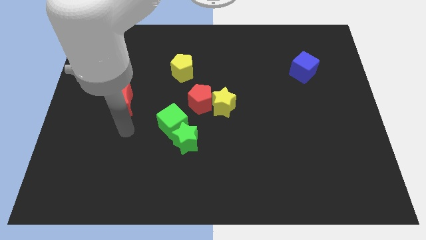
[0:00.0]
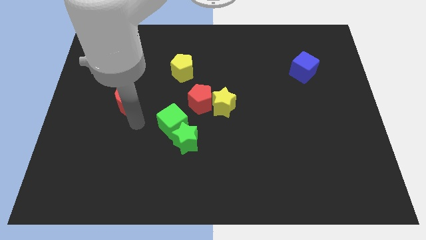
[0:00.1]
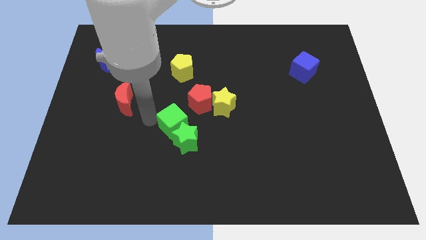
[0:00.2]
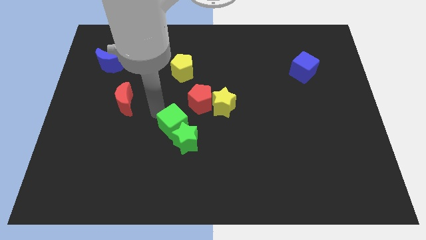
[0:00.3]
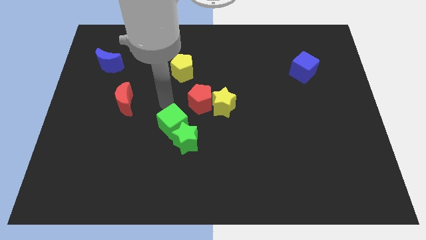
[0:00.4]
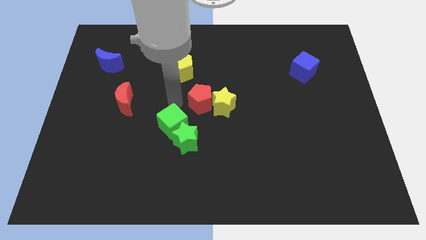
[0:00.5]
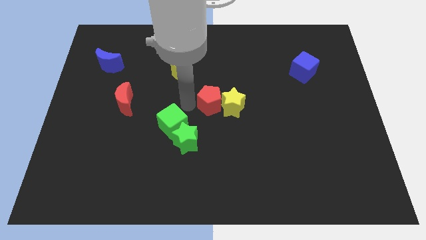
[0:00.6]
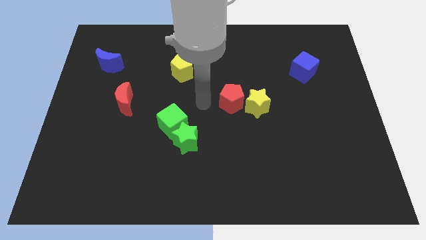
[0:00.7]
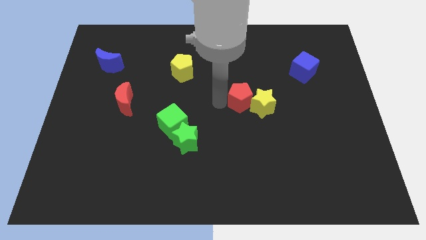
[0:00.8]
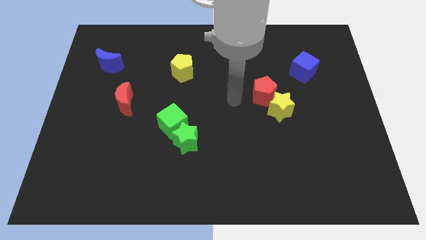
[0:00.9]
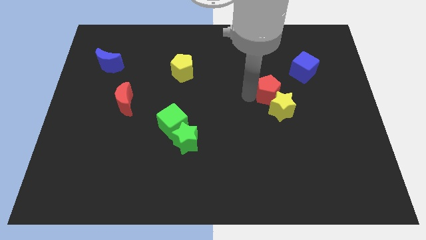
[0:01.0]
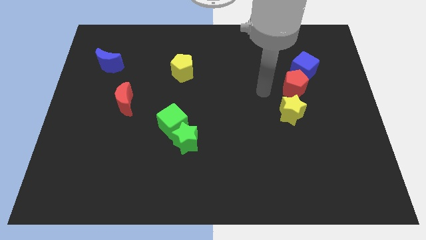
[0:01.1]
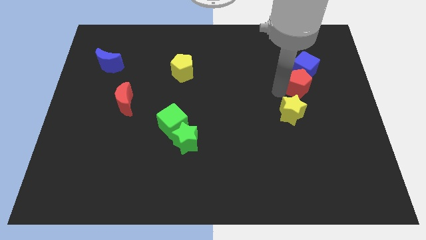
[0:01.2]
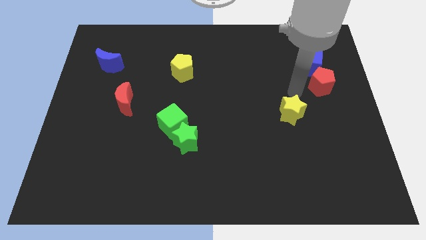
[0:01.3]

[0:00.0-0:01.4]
separate the yellow star from the red pentagon

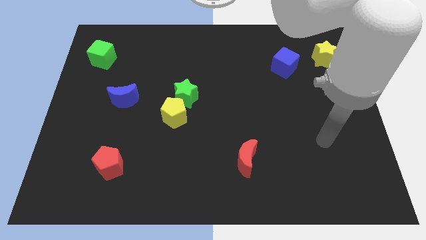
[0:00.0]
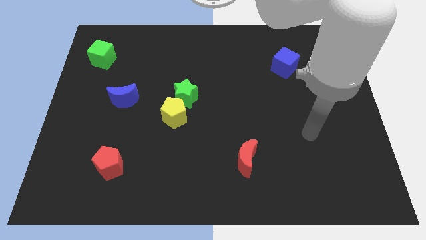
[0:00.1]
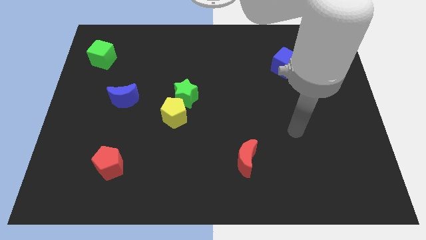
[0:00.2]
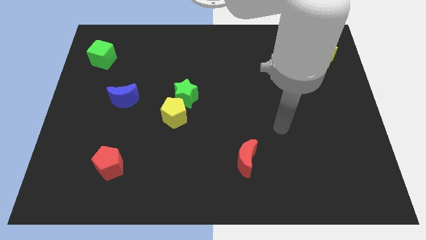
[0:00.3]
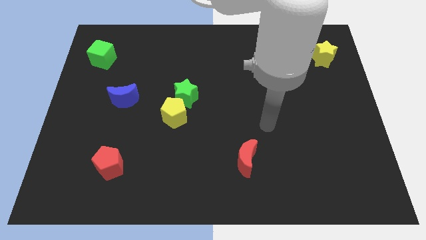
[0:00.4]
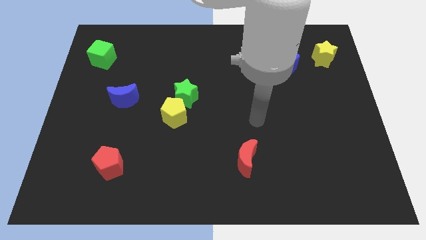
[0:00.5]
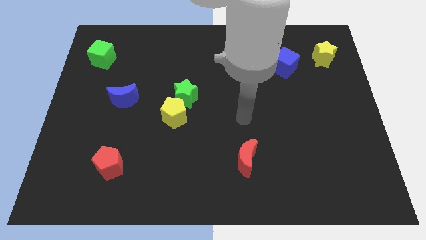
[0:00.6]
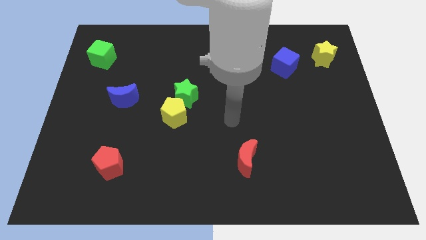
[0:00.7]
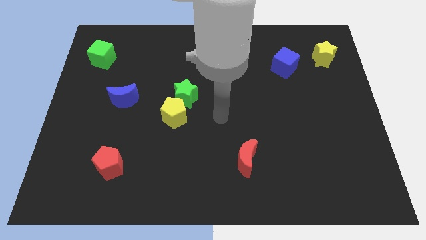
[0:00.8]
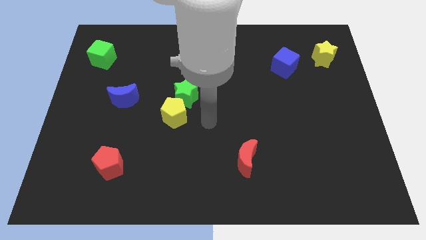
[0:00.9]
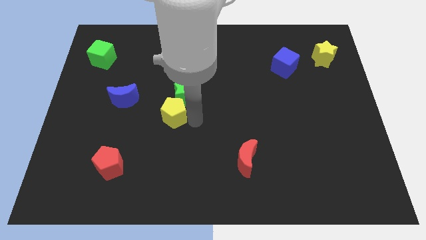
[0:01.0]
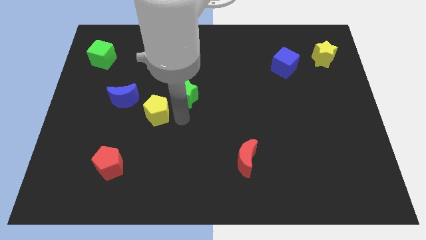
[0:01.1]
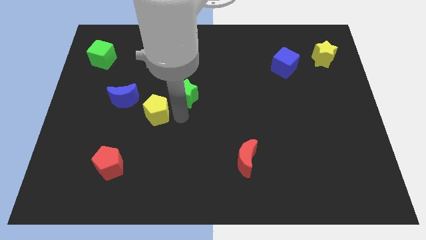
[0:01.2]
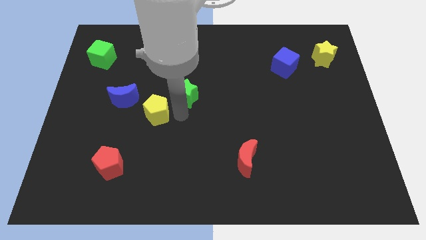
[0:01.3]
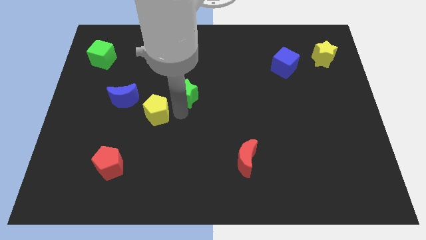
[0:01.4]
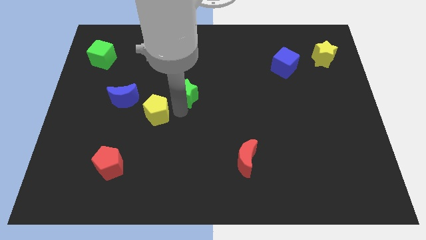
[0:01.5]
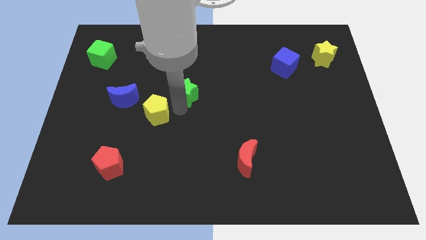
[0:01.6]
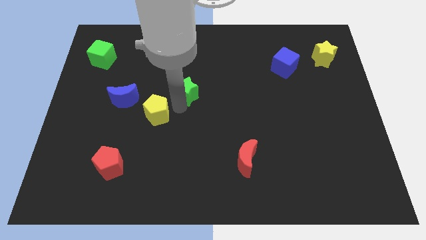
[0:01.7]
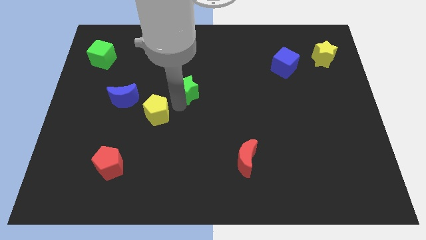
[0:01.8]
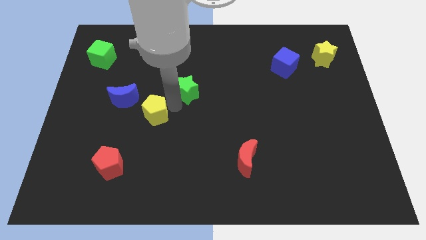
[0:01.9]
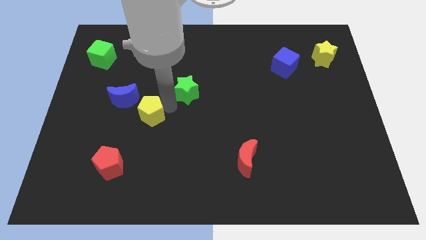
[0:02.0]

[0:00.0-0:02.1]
separate the green star from the yellow pentagon

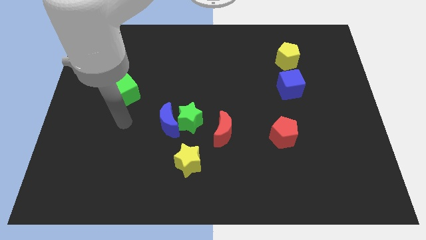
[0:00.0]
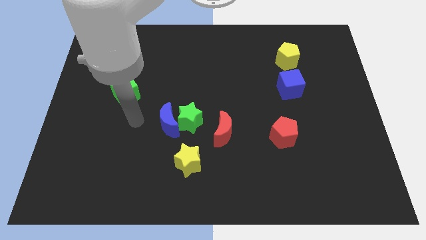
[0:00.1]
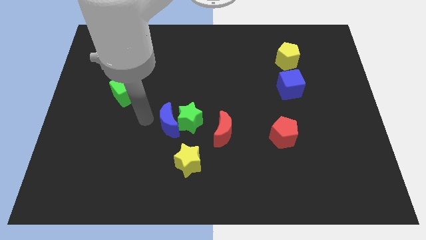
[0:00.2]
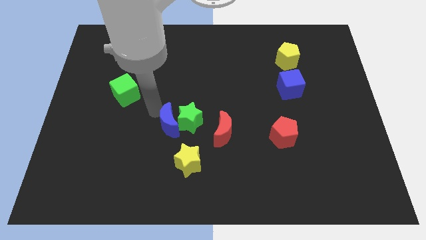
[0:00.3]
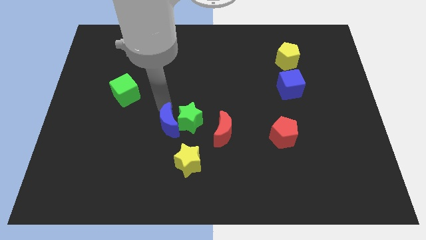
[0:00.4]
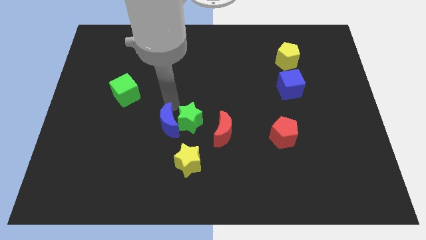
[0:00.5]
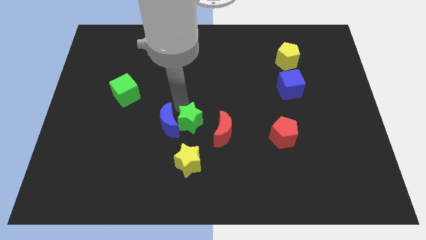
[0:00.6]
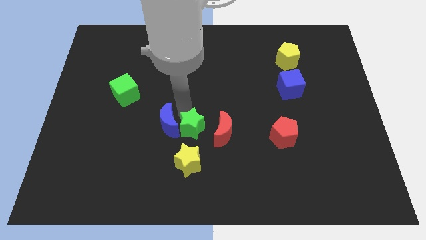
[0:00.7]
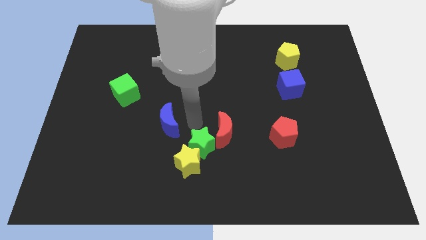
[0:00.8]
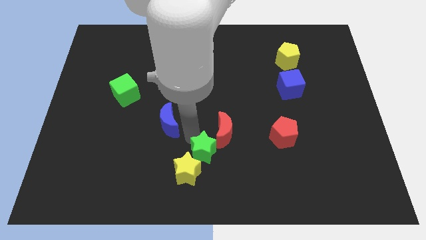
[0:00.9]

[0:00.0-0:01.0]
pull the blue moon apart from the green star

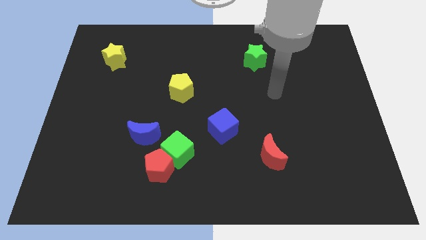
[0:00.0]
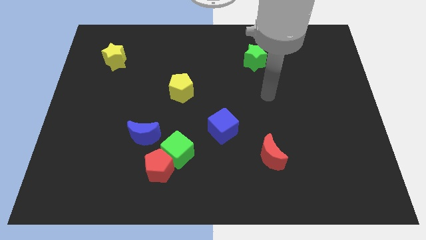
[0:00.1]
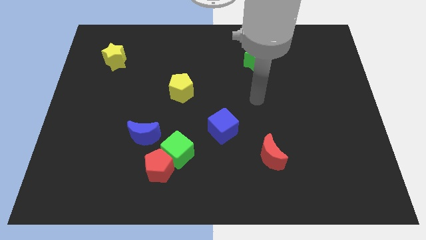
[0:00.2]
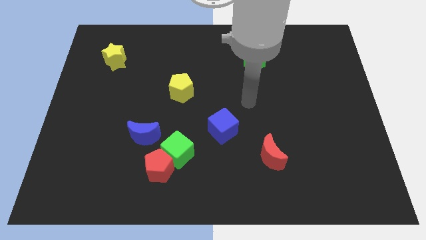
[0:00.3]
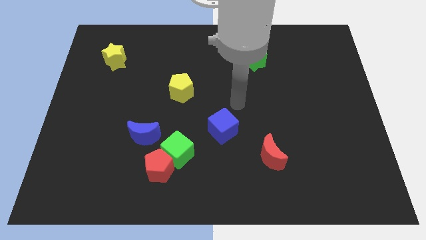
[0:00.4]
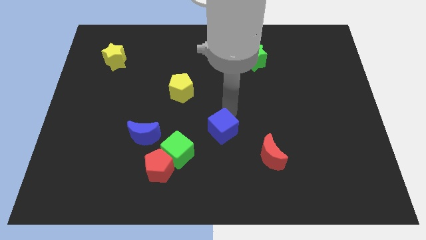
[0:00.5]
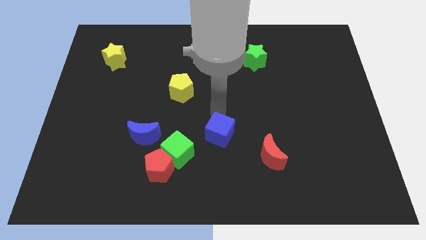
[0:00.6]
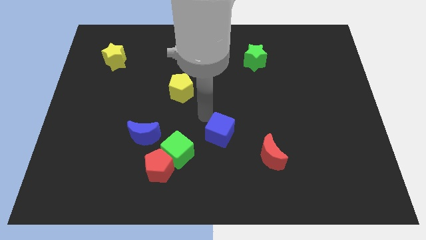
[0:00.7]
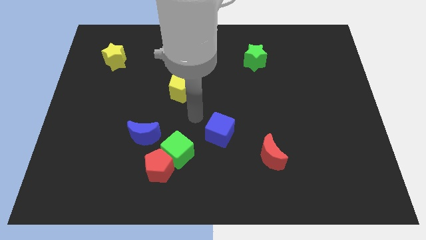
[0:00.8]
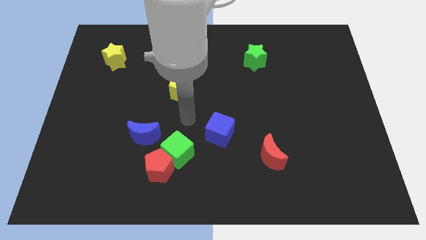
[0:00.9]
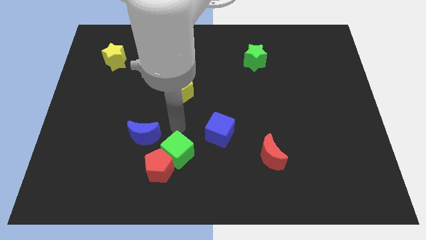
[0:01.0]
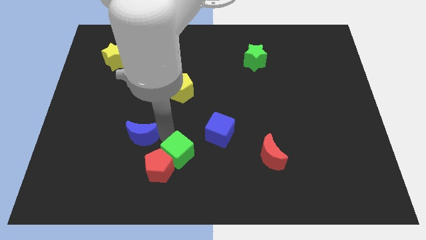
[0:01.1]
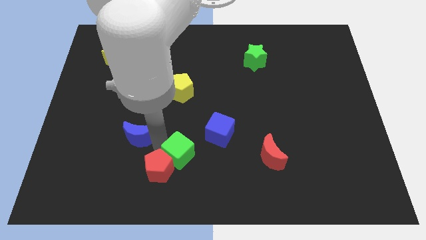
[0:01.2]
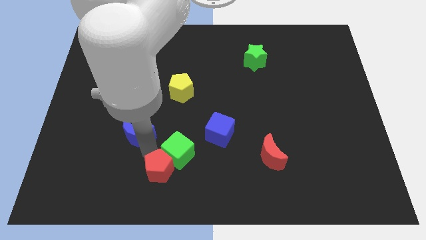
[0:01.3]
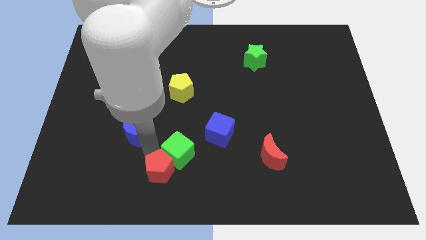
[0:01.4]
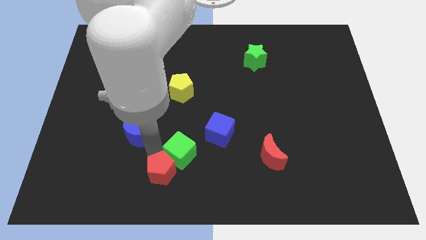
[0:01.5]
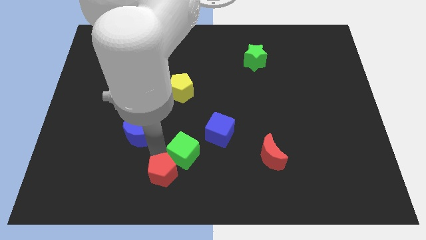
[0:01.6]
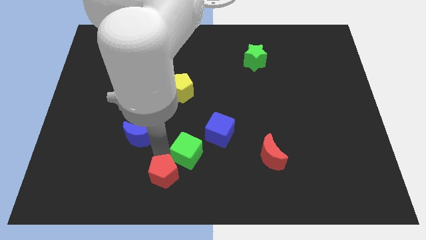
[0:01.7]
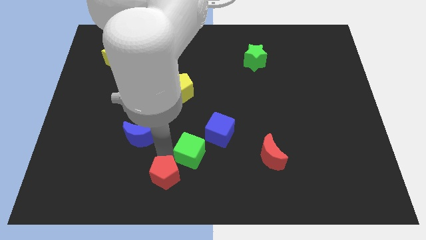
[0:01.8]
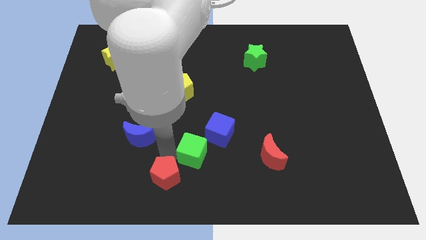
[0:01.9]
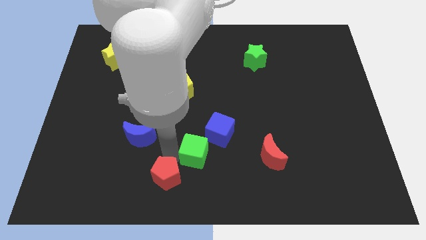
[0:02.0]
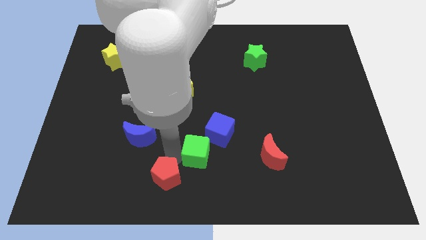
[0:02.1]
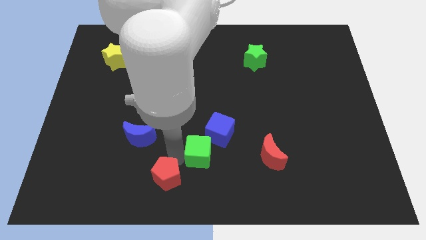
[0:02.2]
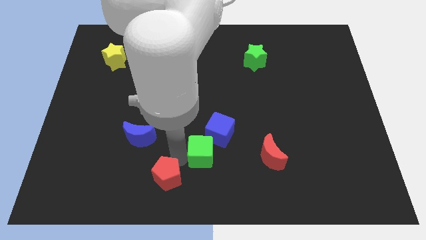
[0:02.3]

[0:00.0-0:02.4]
separate the green cube from the red pentagon and blue moon

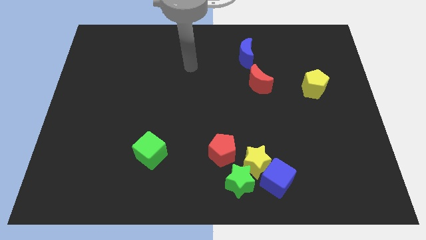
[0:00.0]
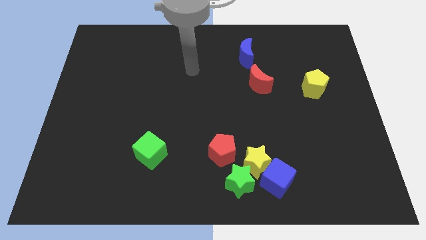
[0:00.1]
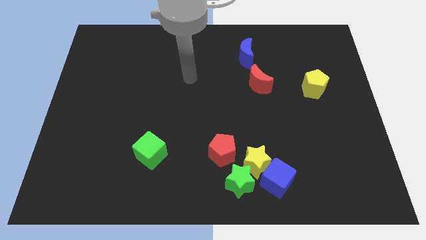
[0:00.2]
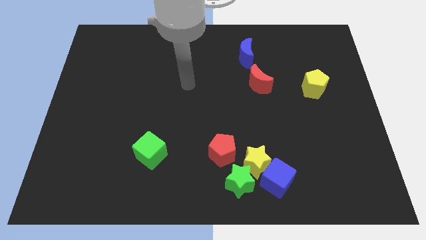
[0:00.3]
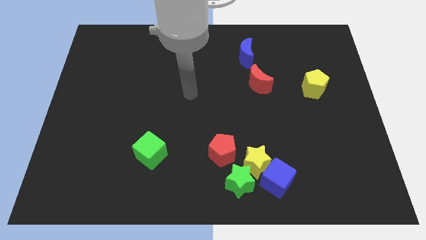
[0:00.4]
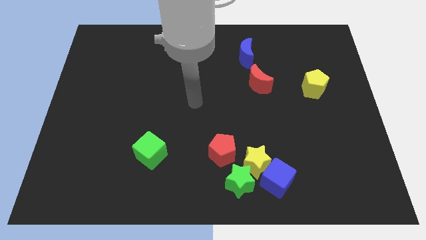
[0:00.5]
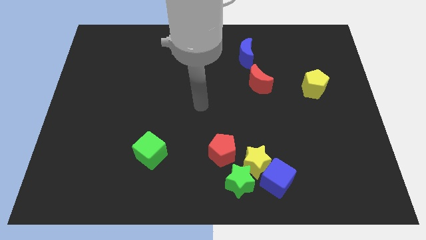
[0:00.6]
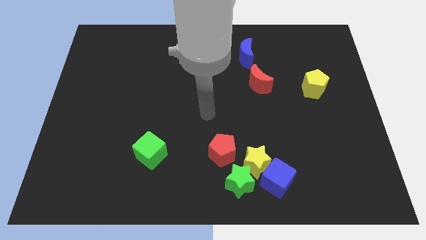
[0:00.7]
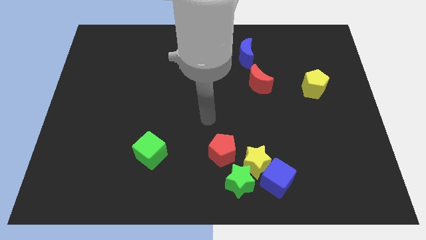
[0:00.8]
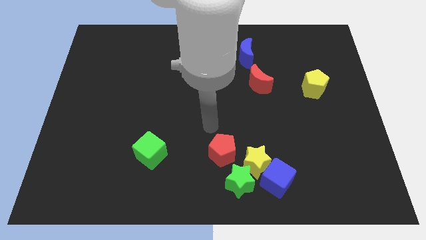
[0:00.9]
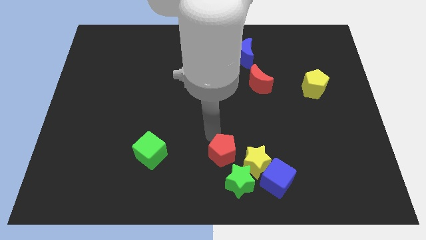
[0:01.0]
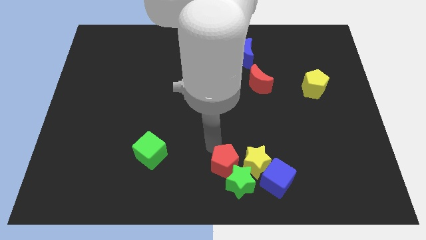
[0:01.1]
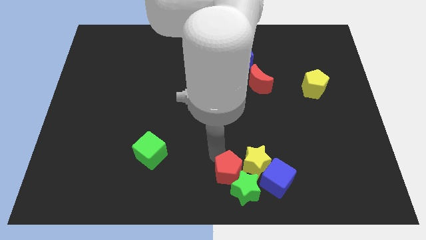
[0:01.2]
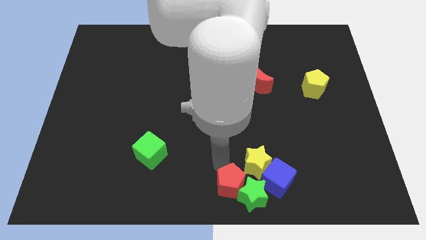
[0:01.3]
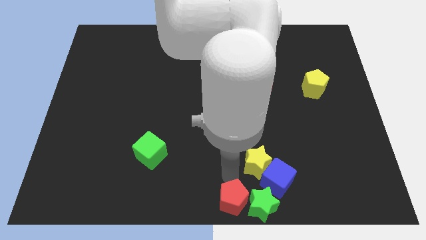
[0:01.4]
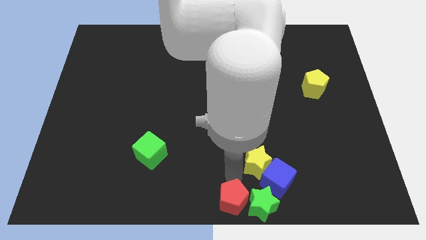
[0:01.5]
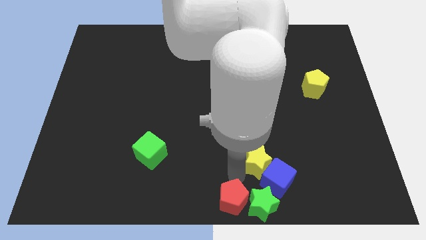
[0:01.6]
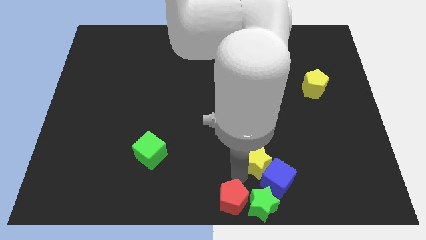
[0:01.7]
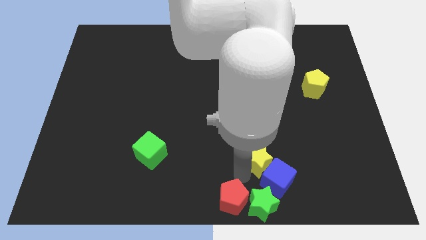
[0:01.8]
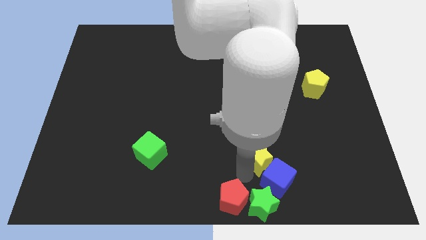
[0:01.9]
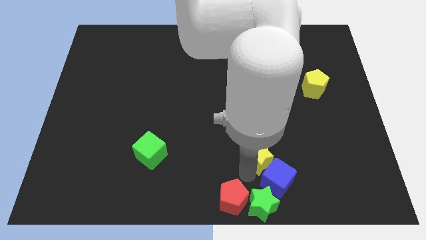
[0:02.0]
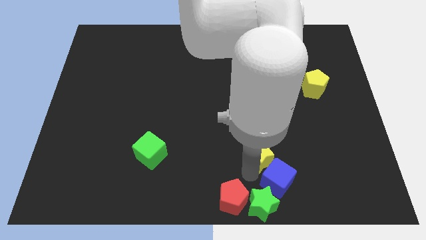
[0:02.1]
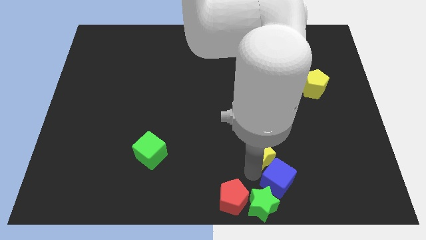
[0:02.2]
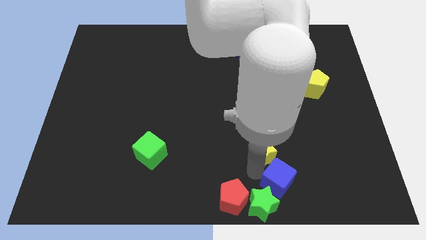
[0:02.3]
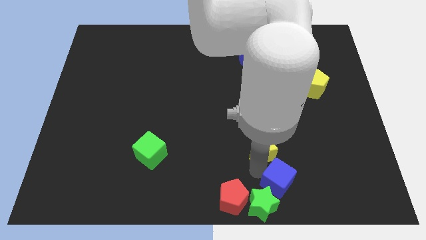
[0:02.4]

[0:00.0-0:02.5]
pull the yellow star apart from the blue cube, green star, and red pentagon

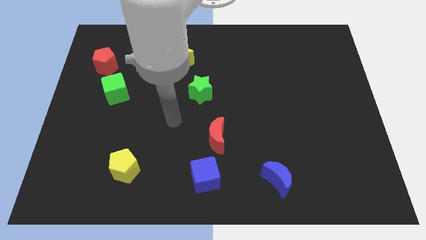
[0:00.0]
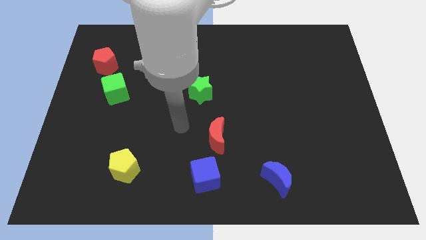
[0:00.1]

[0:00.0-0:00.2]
separate the red moon from the blue cube
